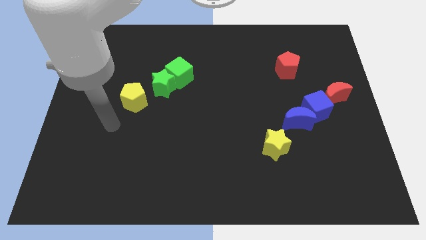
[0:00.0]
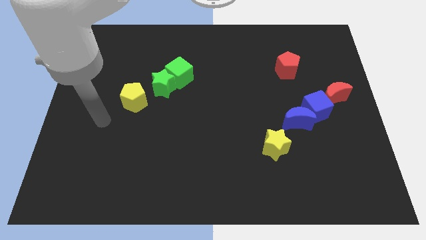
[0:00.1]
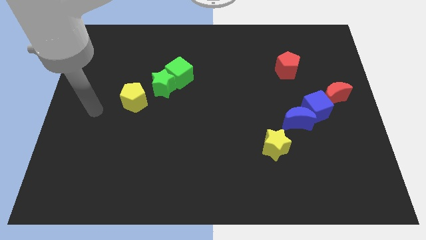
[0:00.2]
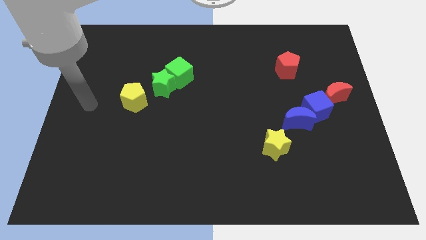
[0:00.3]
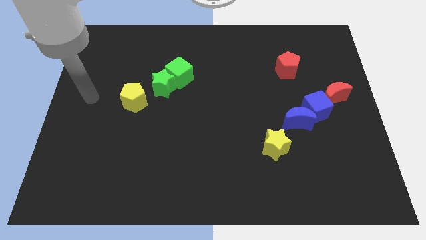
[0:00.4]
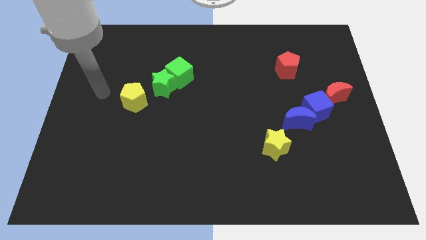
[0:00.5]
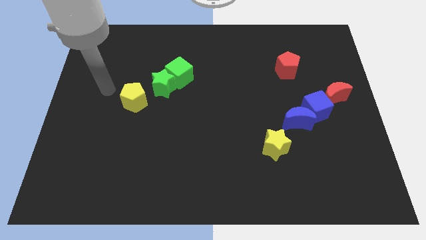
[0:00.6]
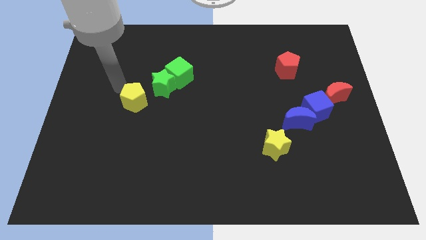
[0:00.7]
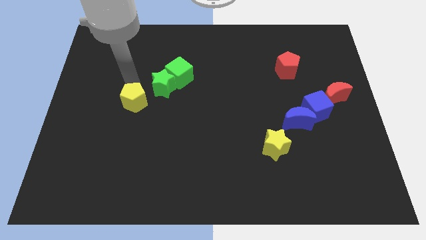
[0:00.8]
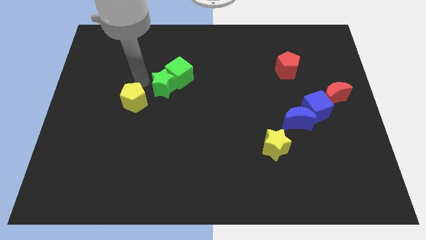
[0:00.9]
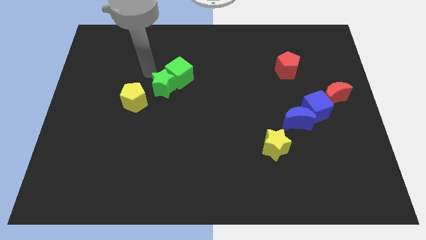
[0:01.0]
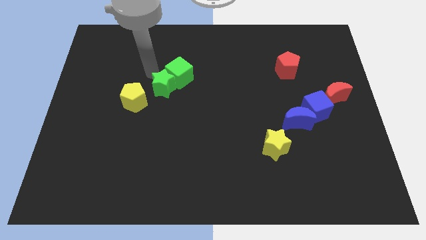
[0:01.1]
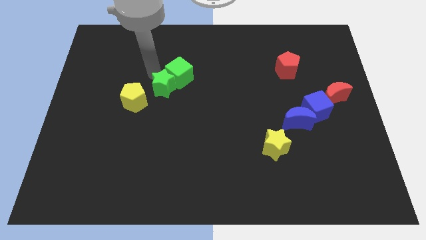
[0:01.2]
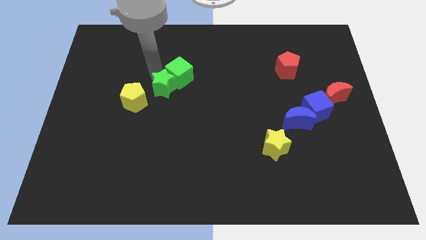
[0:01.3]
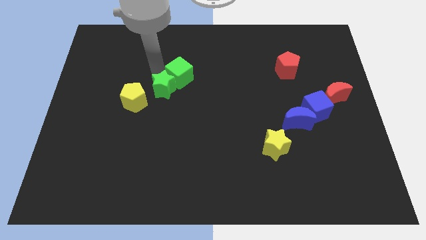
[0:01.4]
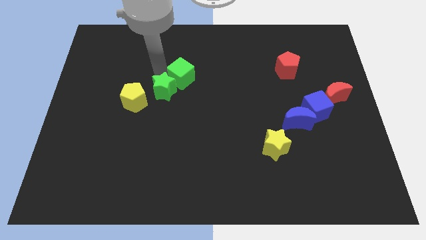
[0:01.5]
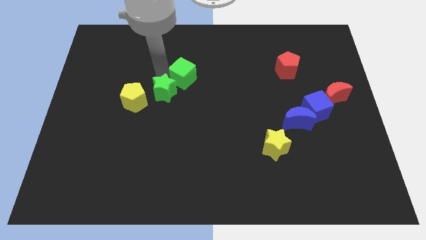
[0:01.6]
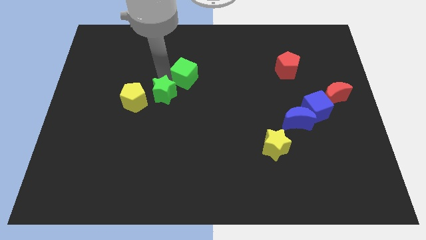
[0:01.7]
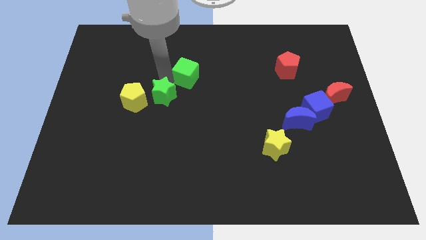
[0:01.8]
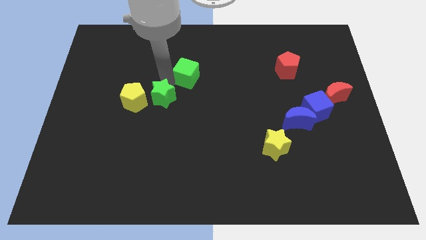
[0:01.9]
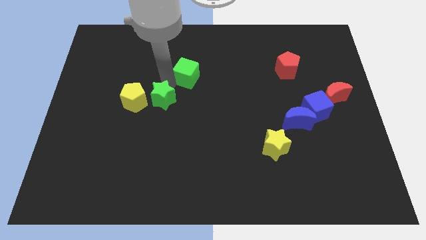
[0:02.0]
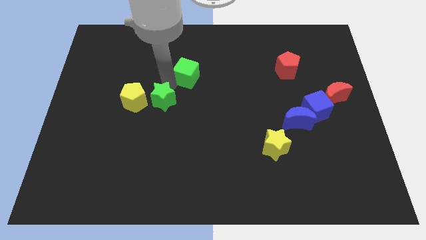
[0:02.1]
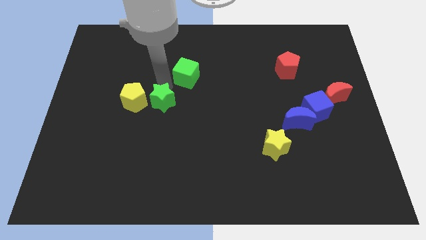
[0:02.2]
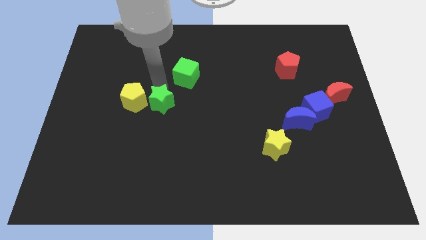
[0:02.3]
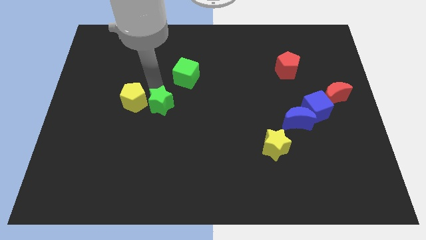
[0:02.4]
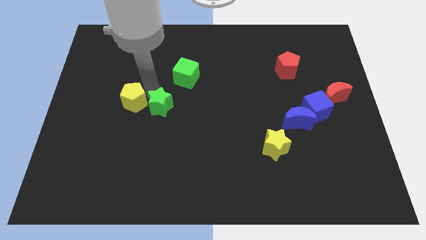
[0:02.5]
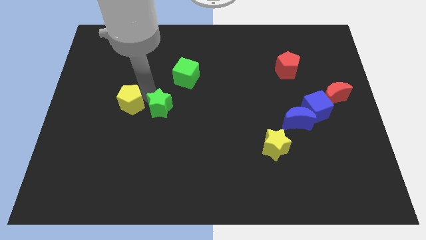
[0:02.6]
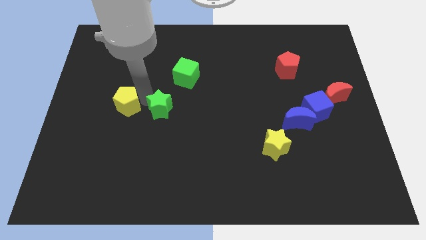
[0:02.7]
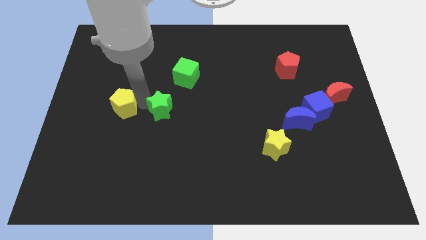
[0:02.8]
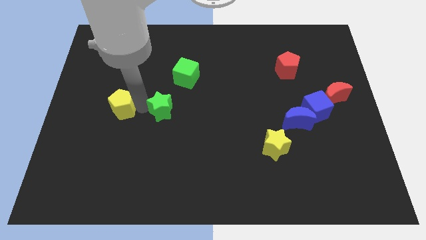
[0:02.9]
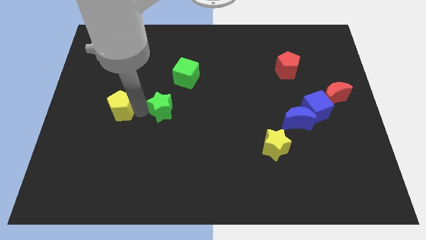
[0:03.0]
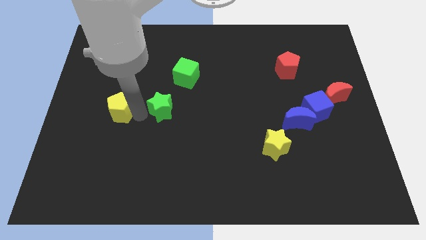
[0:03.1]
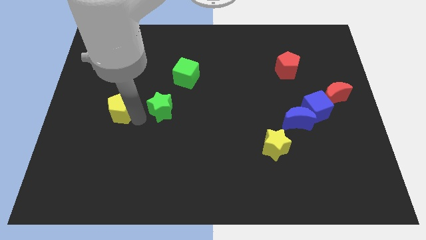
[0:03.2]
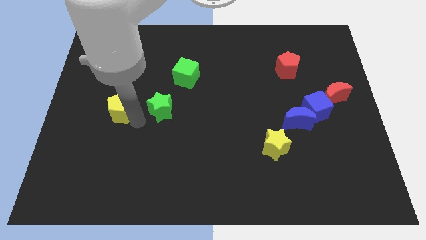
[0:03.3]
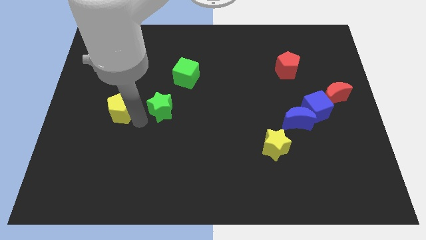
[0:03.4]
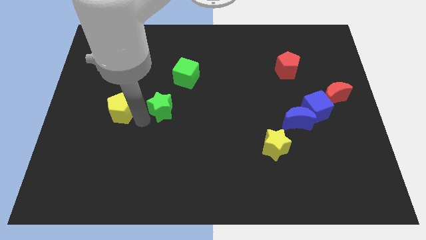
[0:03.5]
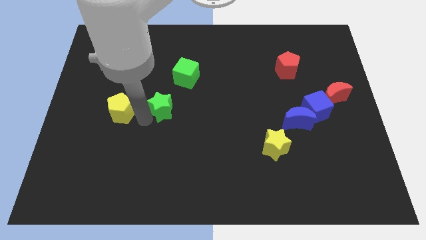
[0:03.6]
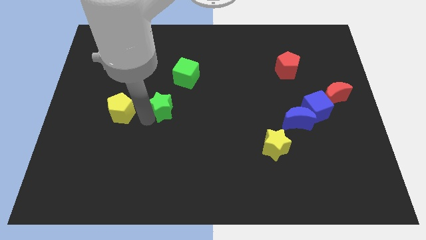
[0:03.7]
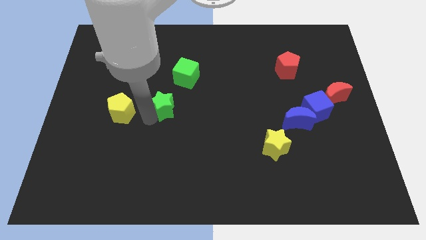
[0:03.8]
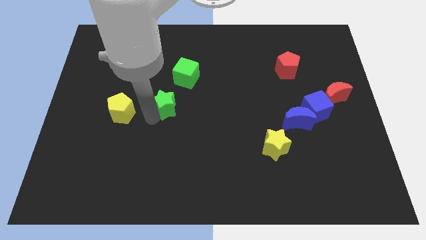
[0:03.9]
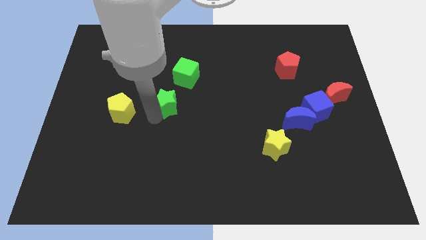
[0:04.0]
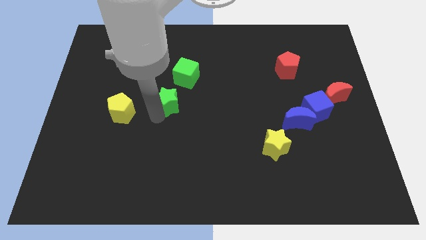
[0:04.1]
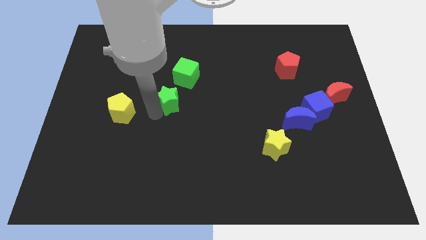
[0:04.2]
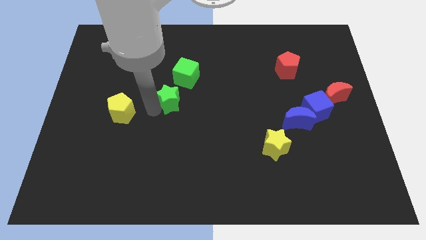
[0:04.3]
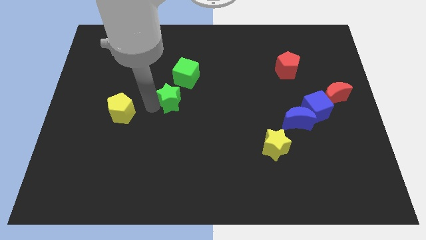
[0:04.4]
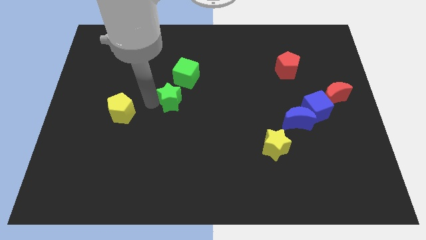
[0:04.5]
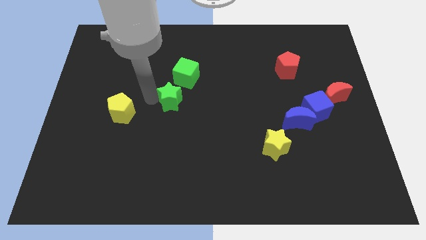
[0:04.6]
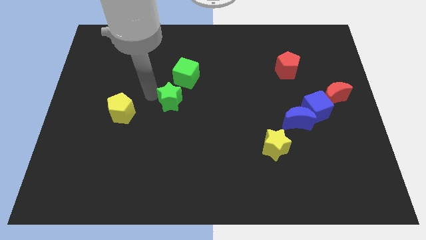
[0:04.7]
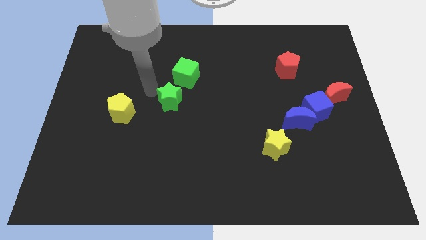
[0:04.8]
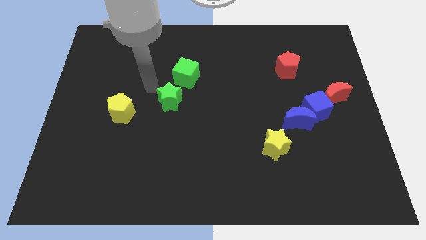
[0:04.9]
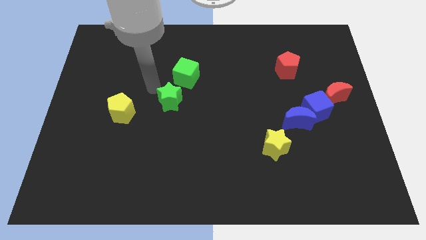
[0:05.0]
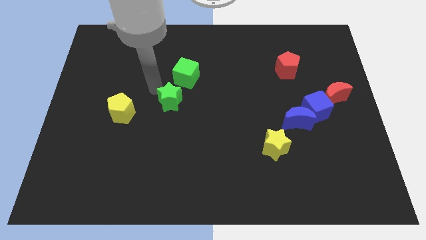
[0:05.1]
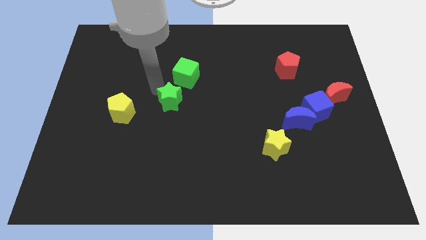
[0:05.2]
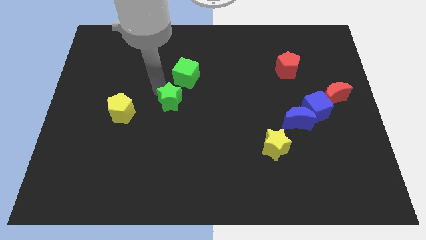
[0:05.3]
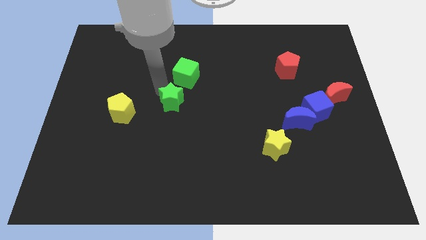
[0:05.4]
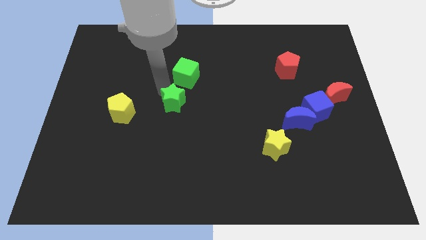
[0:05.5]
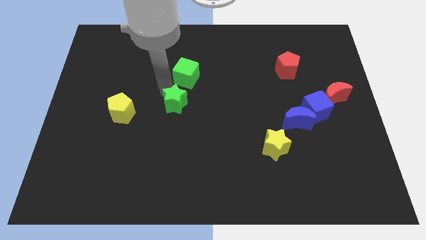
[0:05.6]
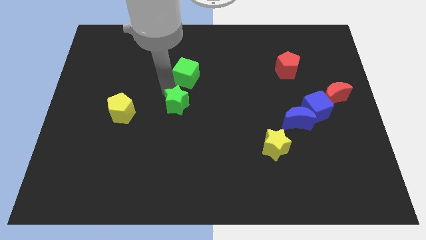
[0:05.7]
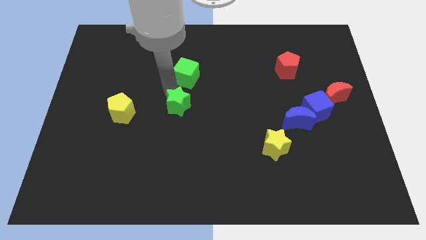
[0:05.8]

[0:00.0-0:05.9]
move the green star slightly down and then right

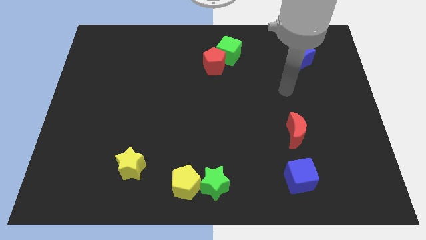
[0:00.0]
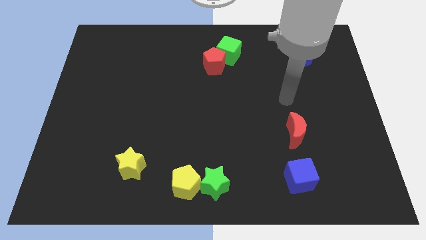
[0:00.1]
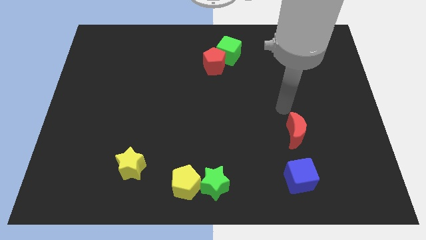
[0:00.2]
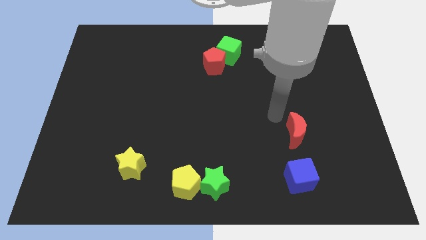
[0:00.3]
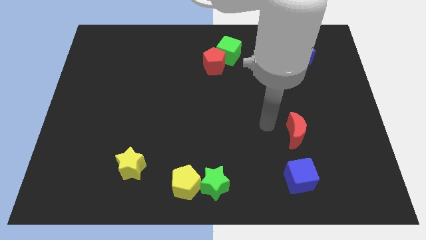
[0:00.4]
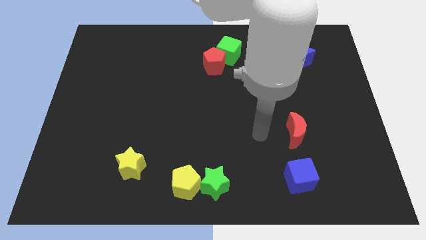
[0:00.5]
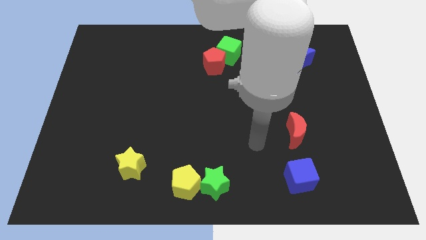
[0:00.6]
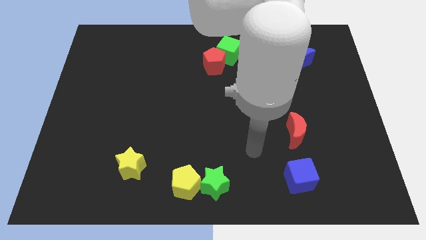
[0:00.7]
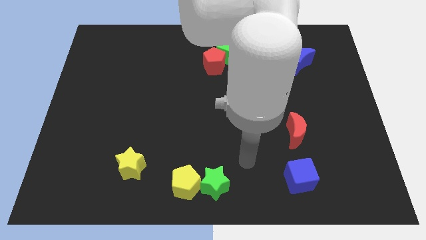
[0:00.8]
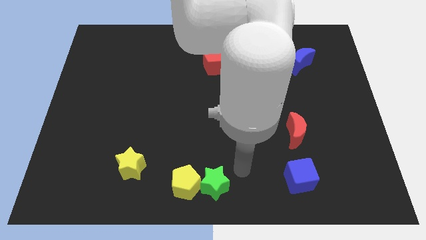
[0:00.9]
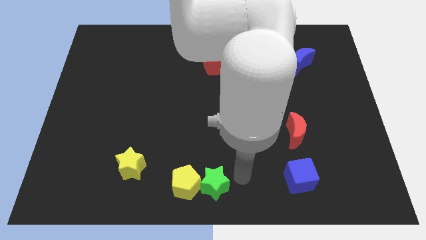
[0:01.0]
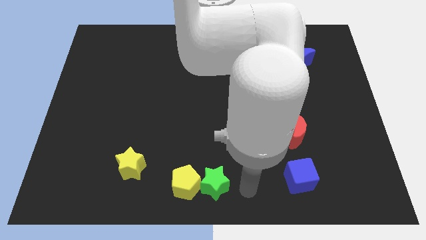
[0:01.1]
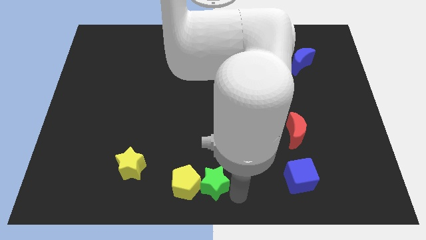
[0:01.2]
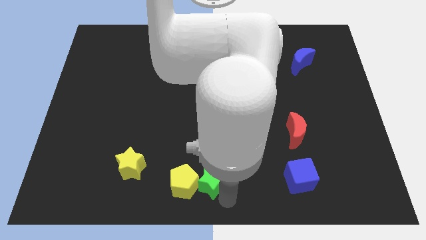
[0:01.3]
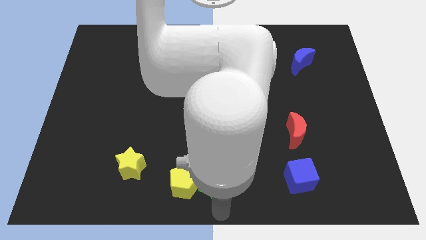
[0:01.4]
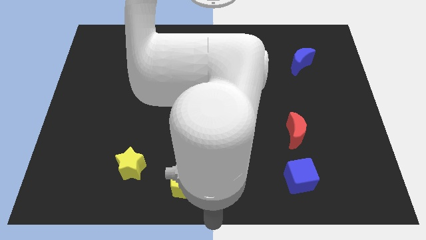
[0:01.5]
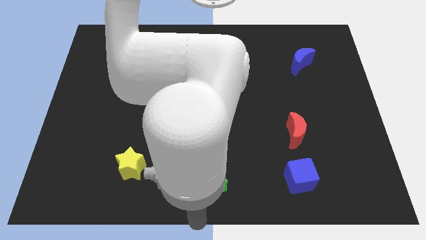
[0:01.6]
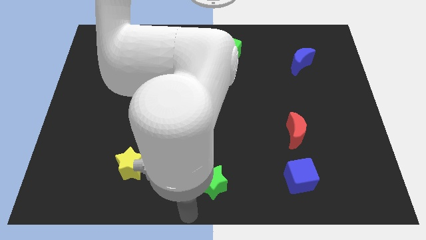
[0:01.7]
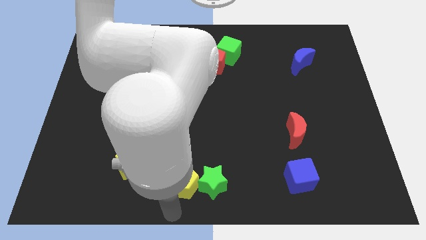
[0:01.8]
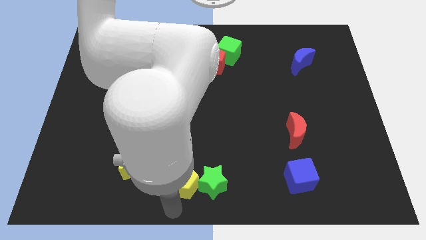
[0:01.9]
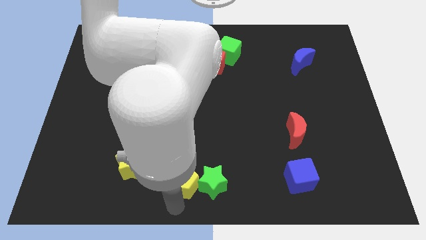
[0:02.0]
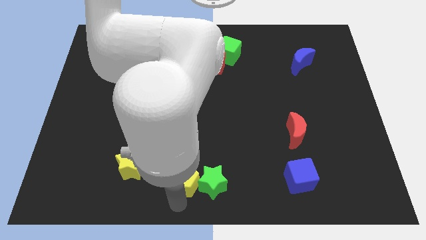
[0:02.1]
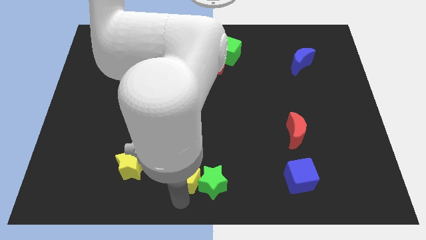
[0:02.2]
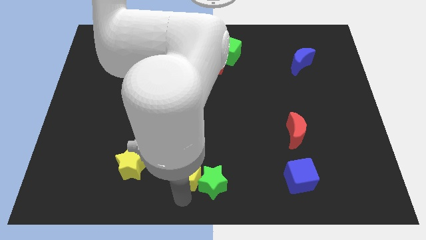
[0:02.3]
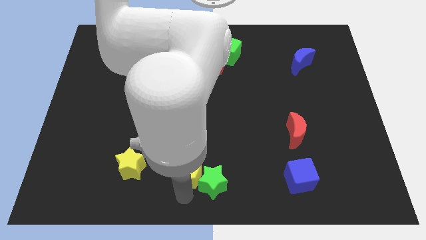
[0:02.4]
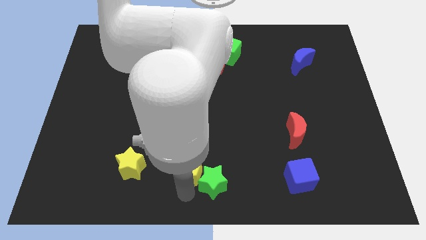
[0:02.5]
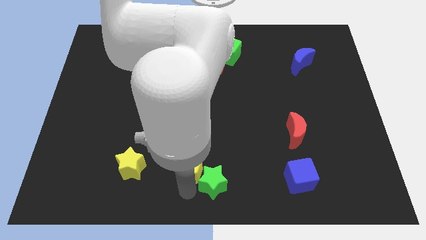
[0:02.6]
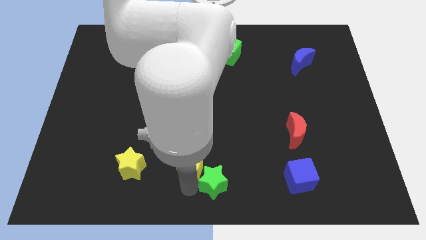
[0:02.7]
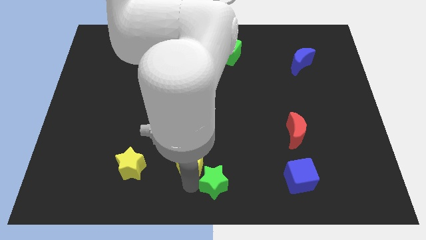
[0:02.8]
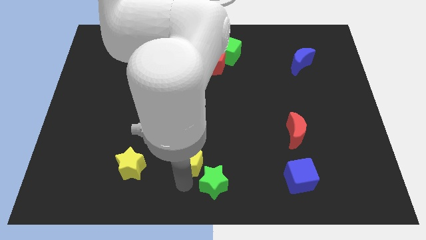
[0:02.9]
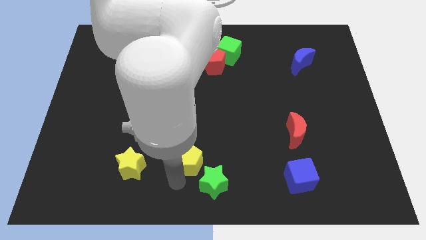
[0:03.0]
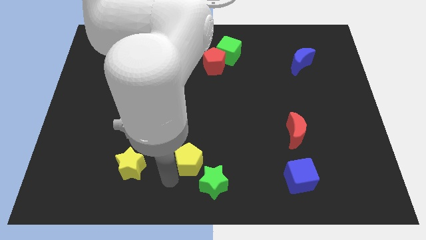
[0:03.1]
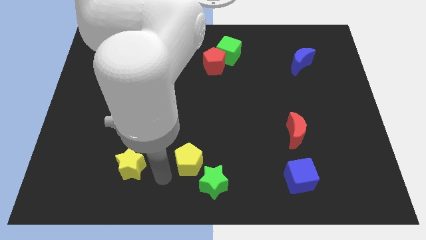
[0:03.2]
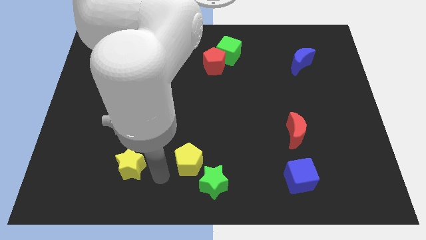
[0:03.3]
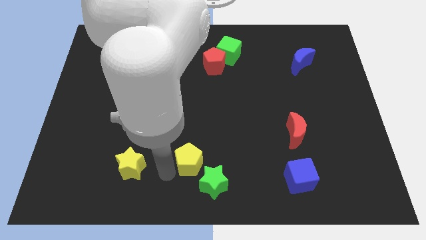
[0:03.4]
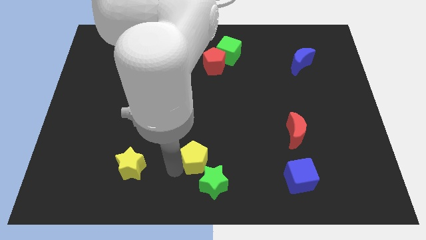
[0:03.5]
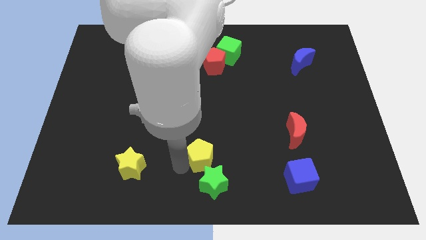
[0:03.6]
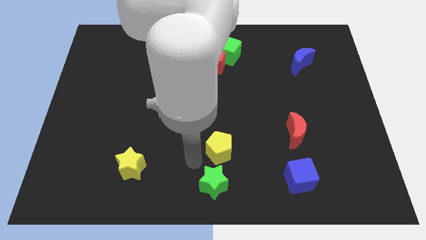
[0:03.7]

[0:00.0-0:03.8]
slightly move the yellow pentagon up and then right
